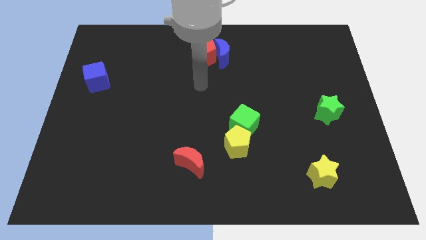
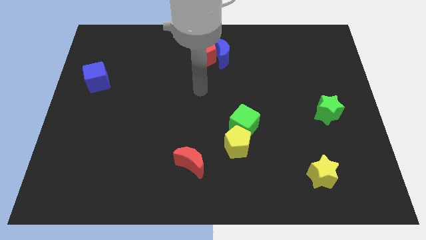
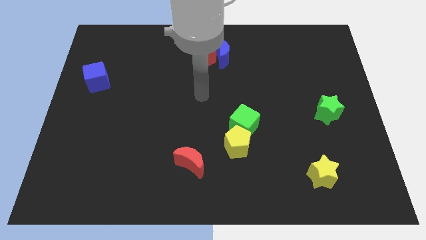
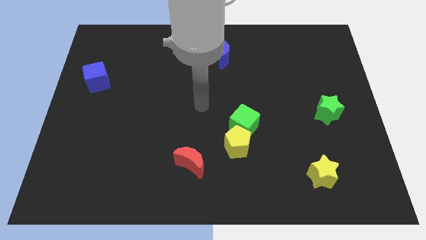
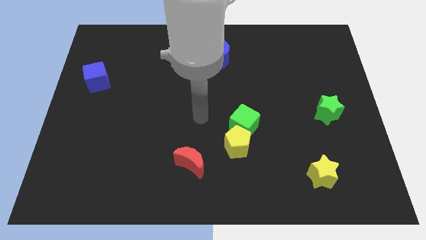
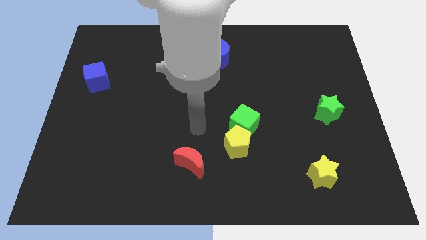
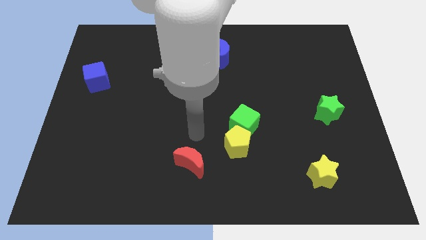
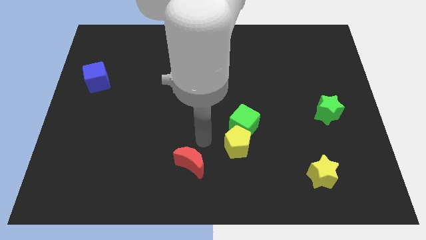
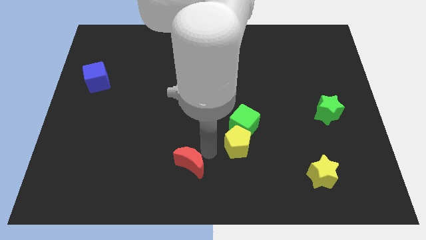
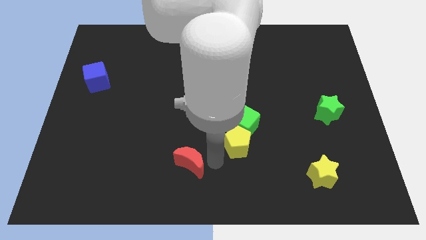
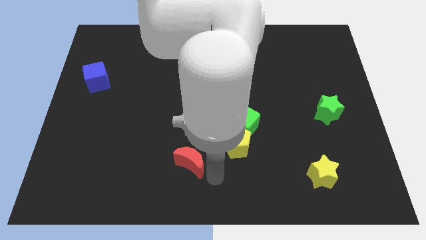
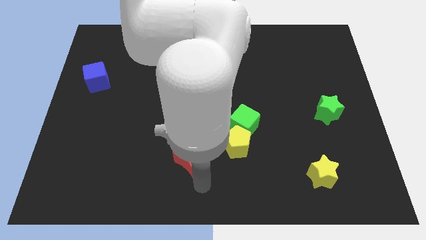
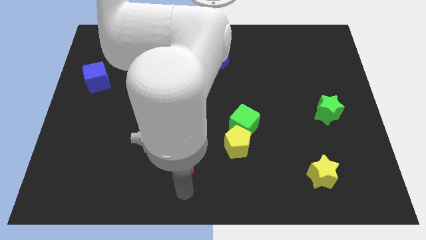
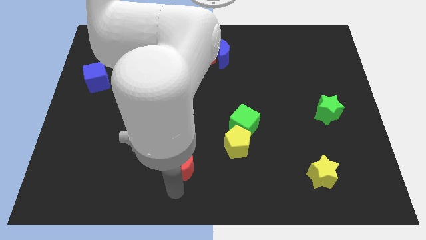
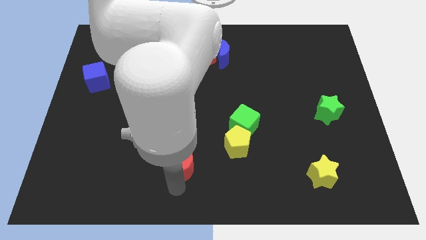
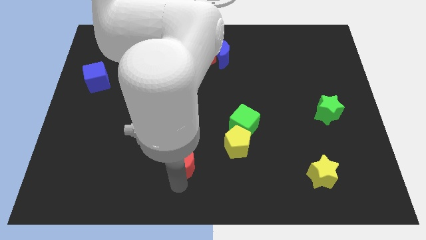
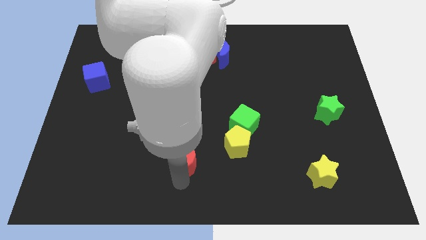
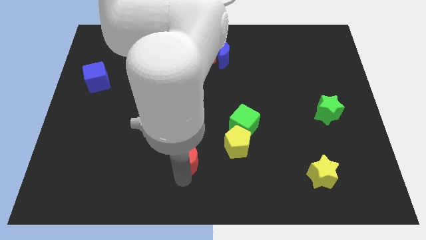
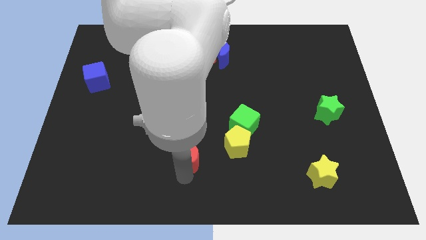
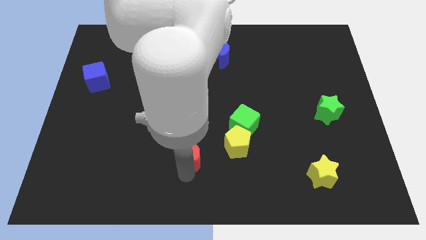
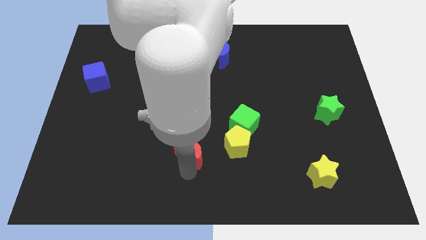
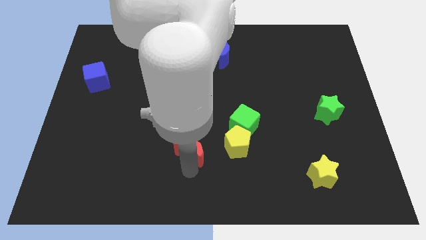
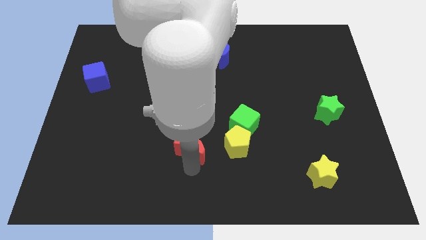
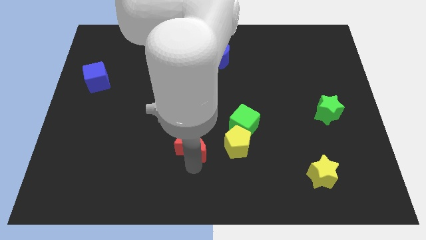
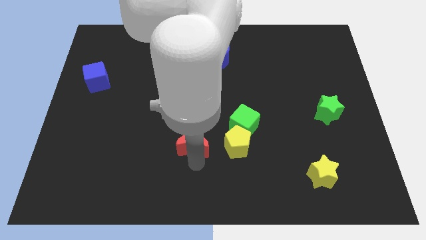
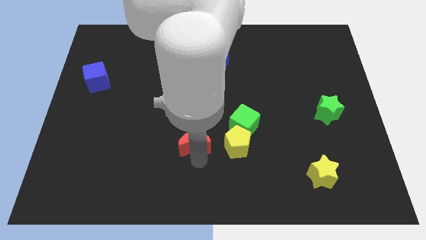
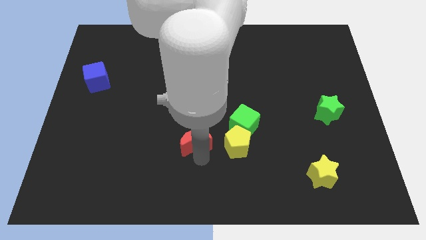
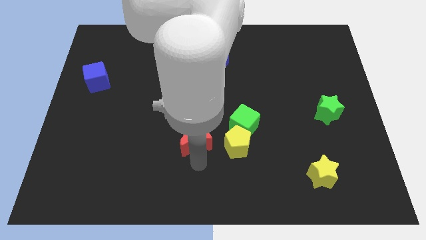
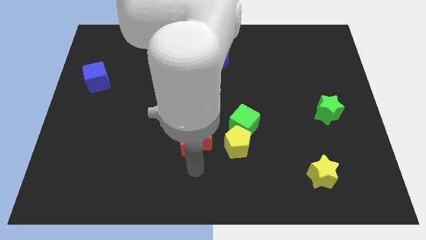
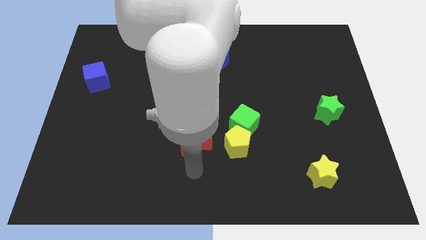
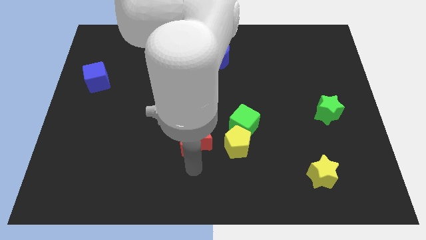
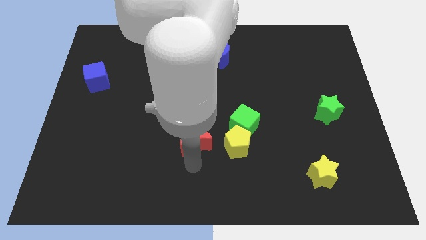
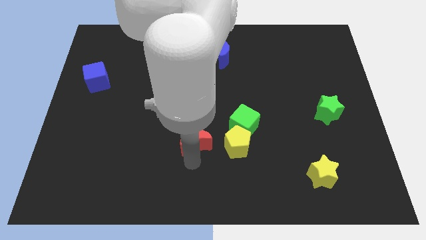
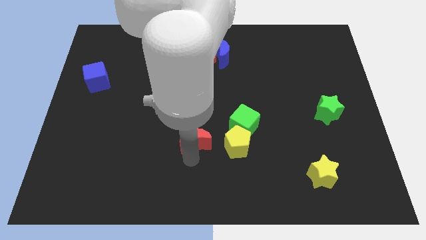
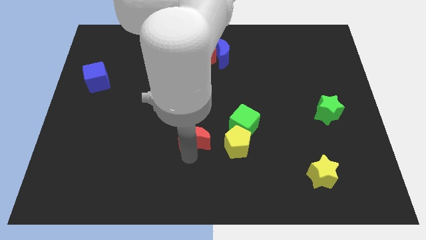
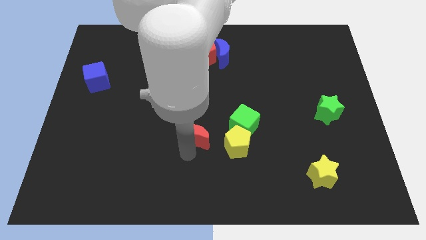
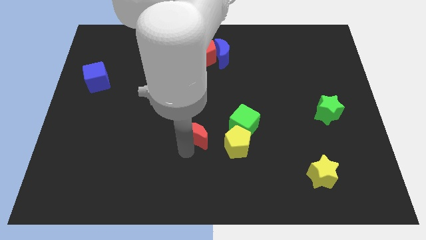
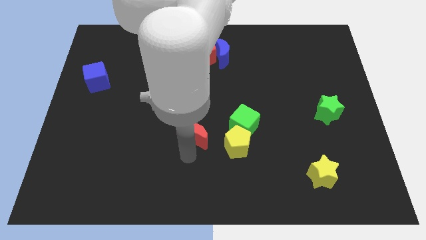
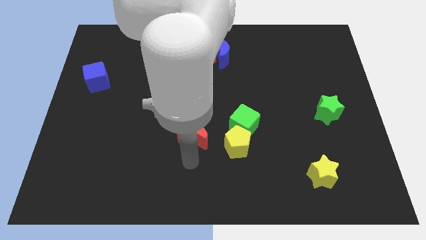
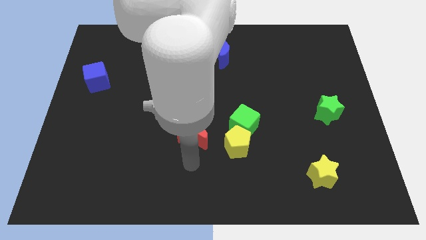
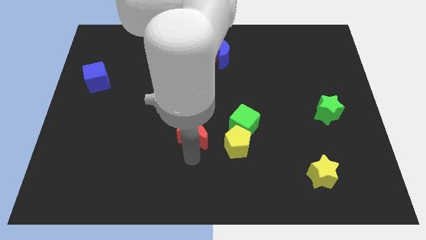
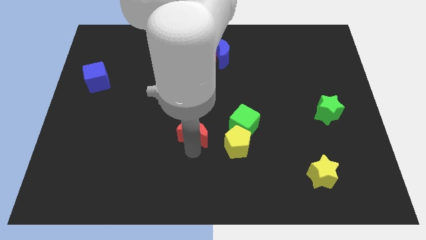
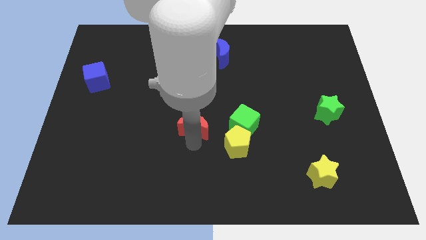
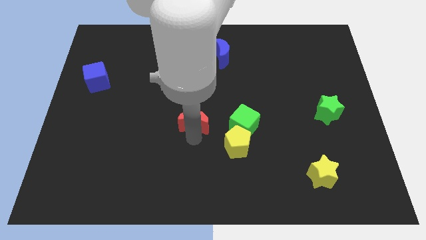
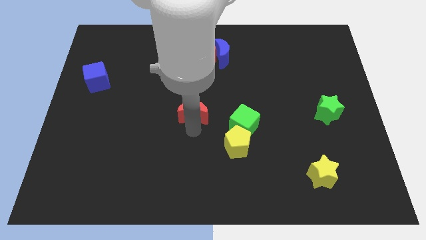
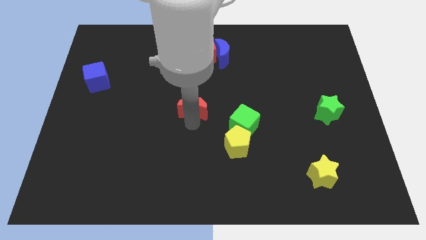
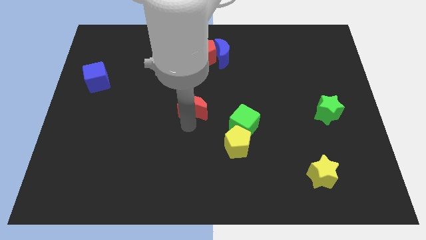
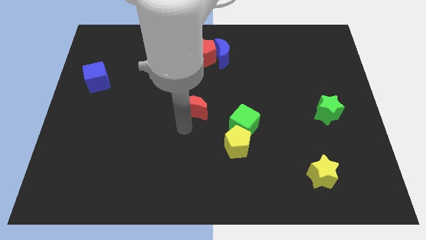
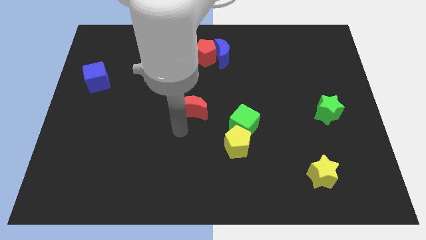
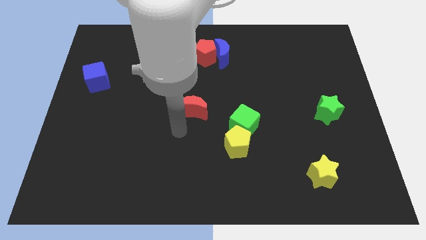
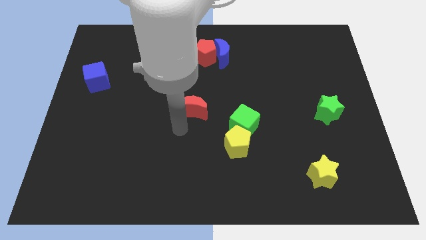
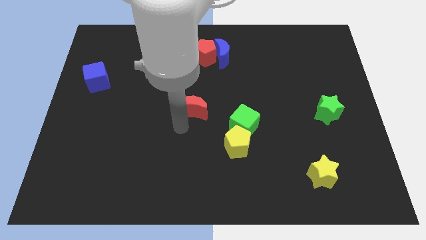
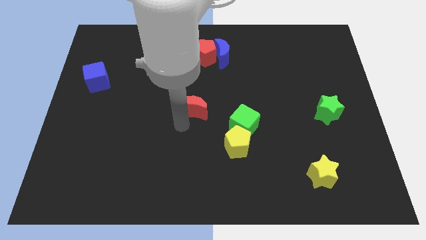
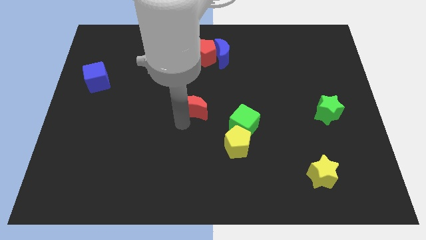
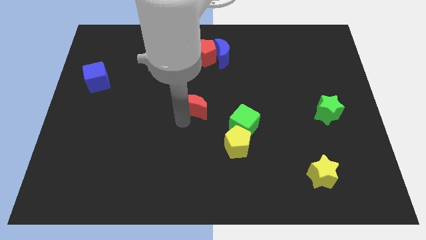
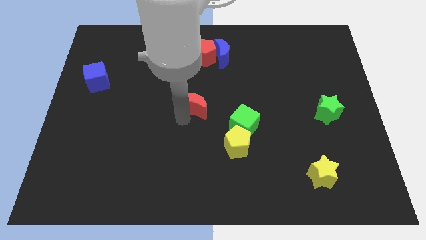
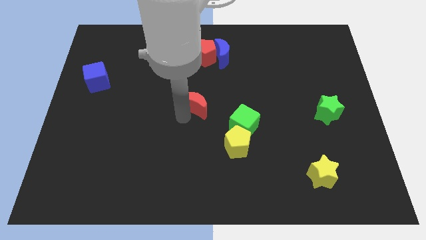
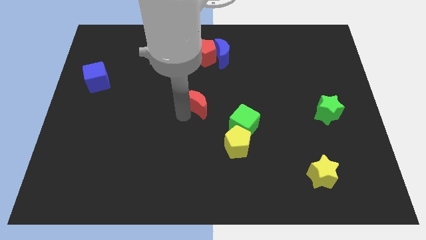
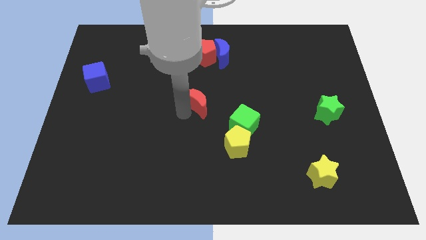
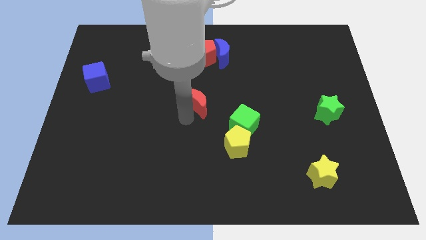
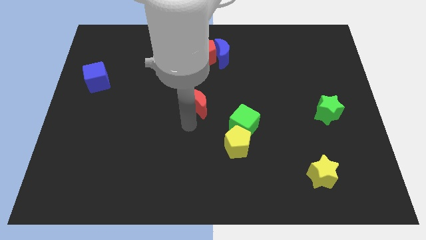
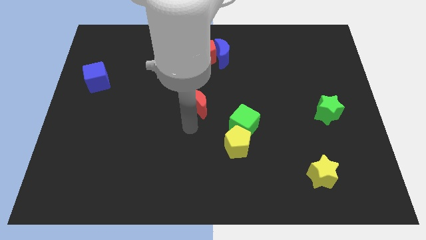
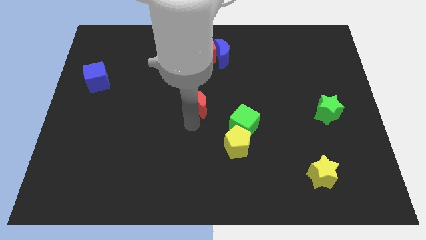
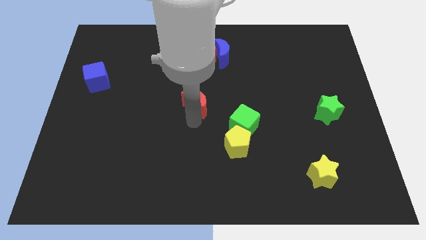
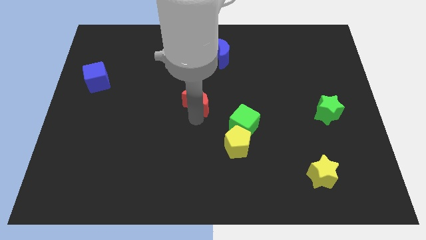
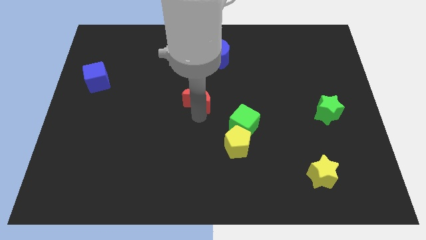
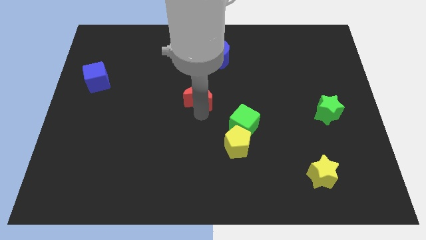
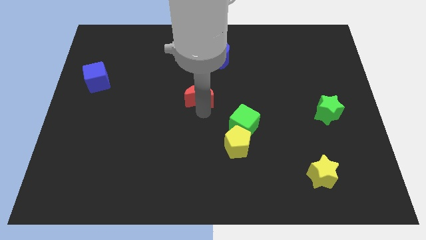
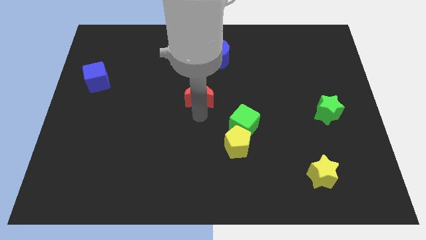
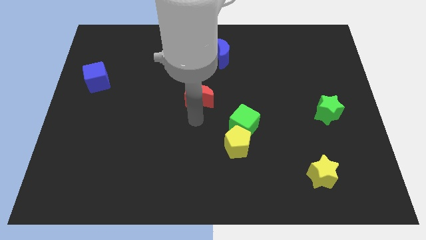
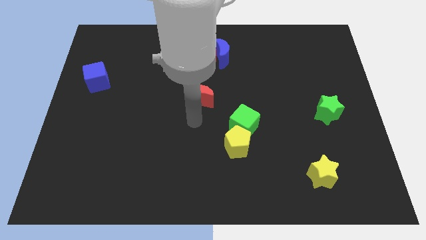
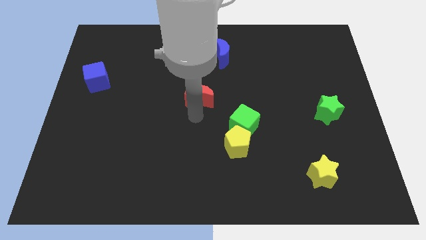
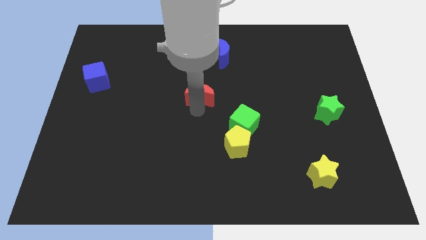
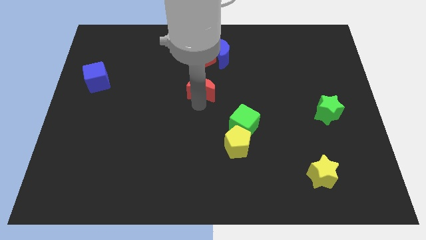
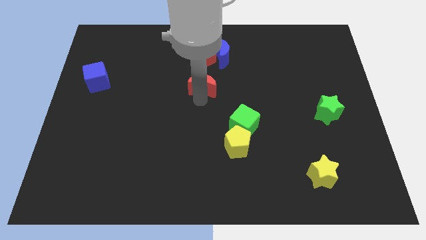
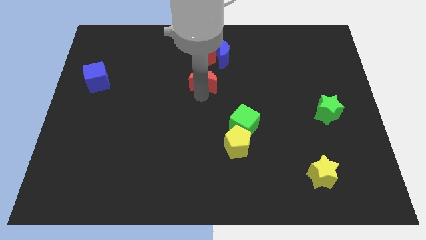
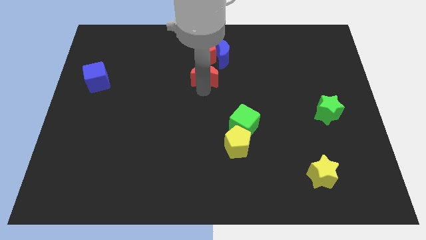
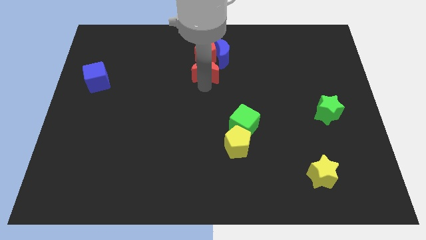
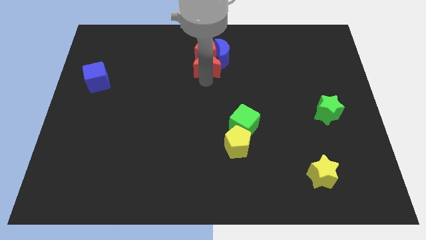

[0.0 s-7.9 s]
move the red moon next to the red pentagon
